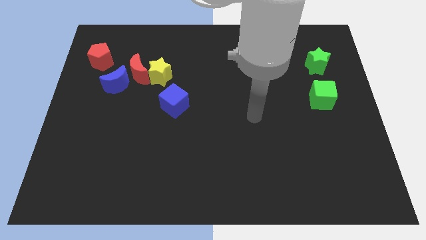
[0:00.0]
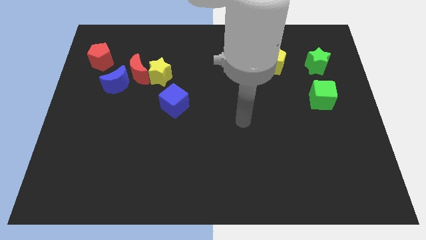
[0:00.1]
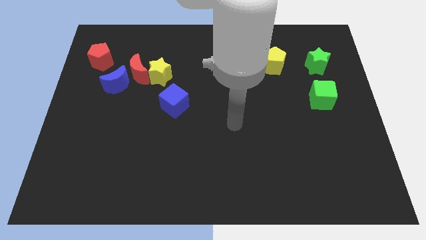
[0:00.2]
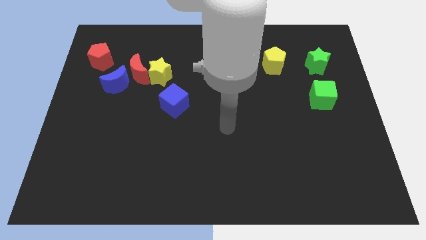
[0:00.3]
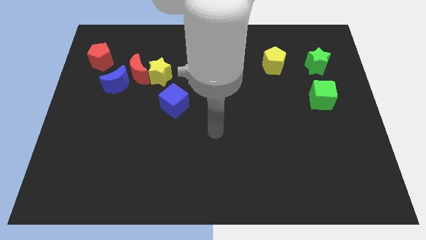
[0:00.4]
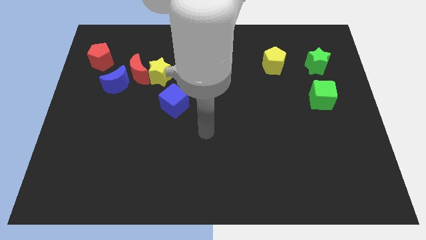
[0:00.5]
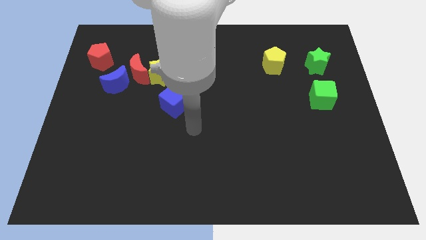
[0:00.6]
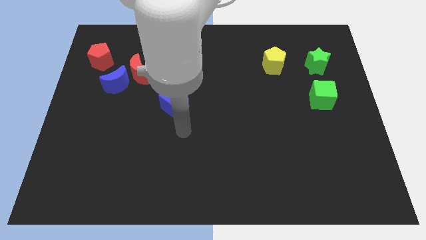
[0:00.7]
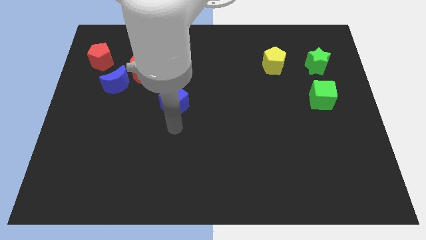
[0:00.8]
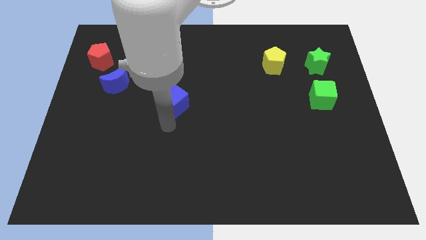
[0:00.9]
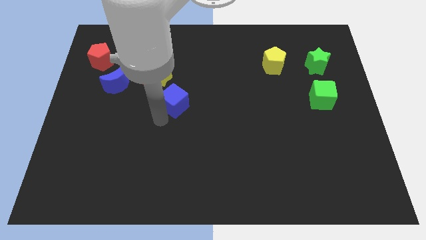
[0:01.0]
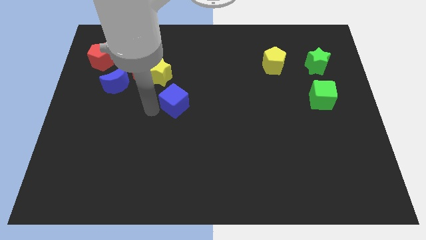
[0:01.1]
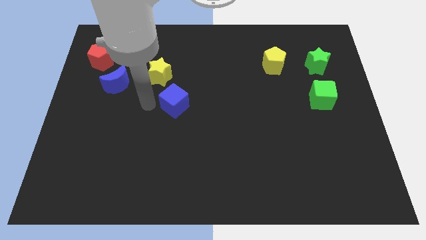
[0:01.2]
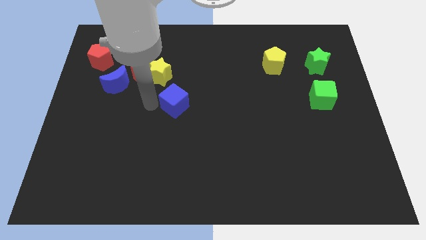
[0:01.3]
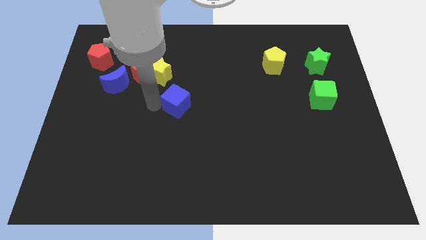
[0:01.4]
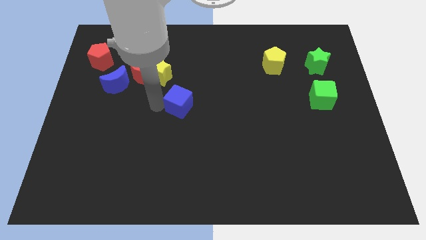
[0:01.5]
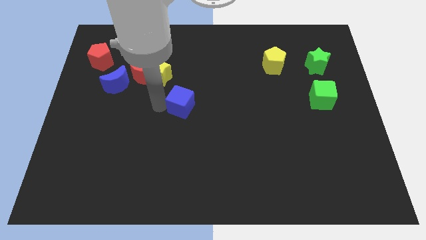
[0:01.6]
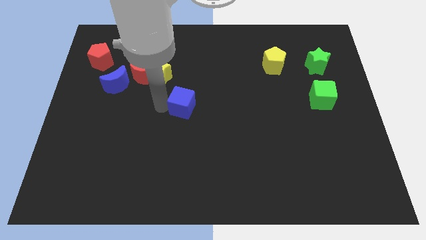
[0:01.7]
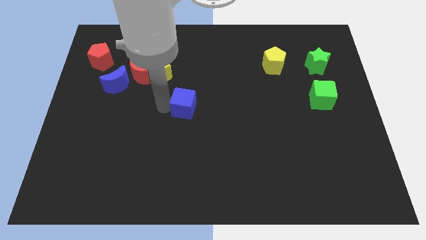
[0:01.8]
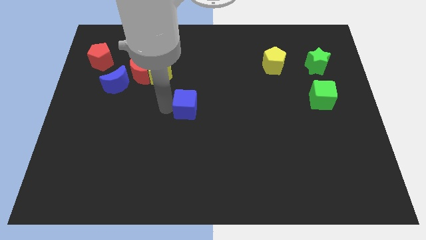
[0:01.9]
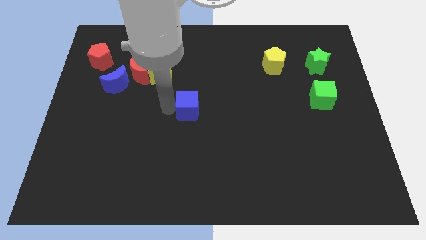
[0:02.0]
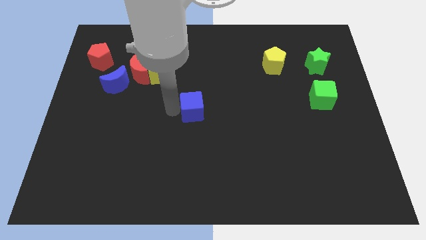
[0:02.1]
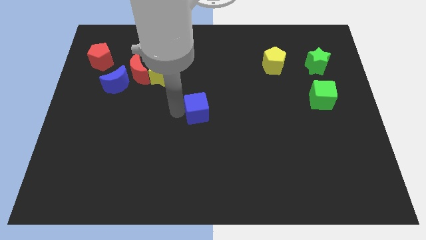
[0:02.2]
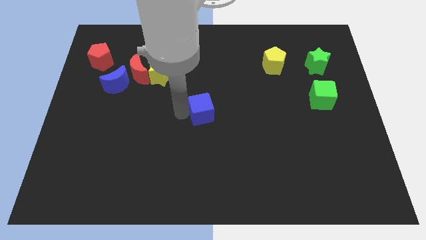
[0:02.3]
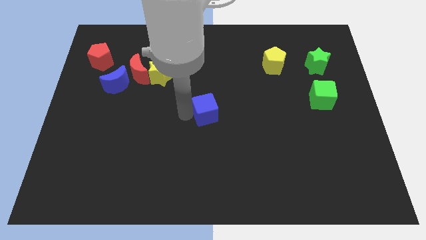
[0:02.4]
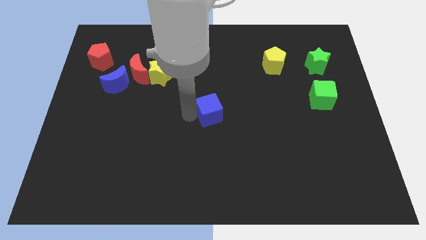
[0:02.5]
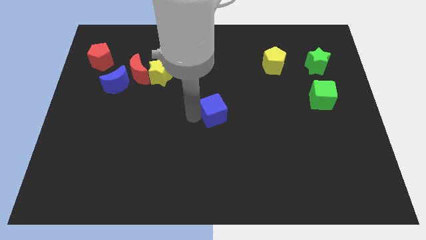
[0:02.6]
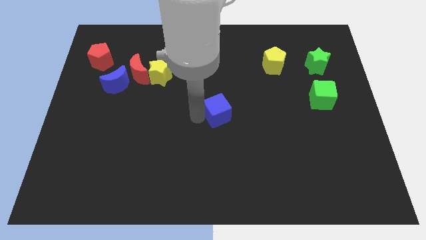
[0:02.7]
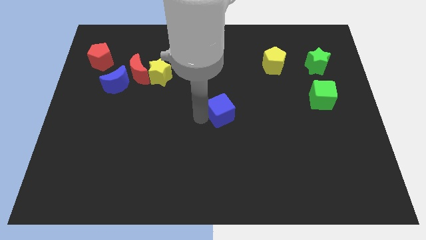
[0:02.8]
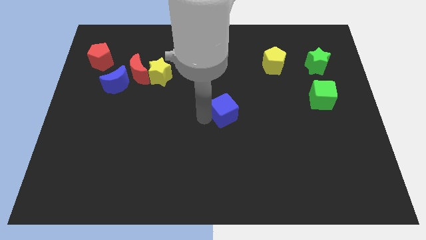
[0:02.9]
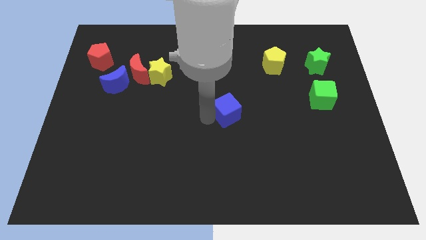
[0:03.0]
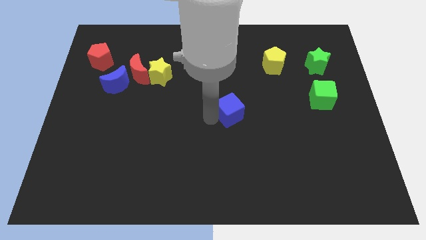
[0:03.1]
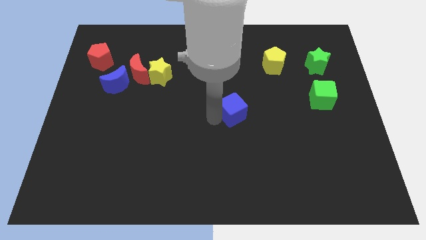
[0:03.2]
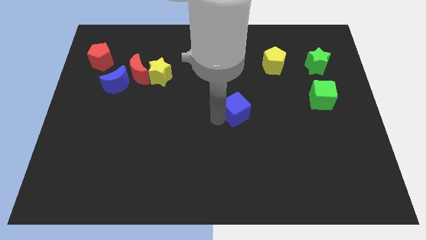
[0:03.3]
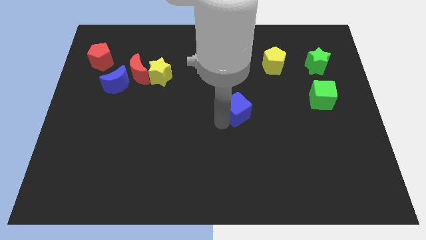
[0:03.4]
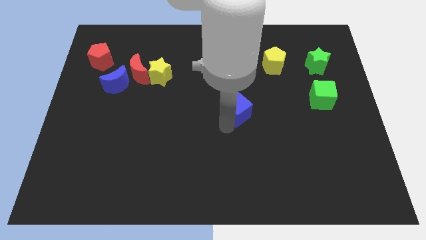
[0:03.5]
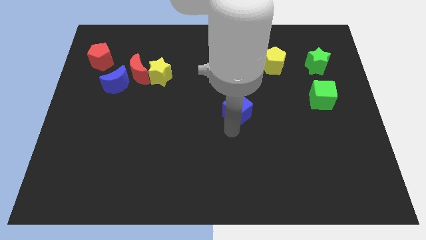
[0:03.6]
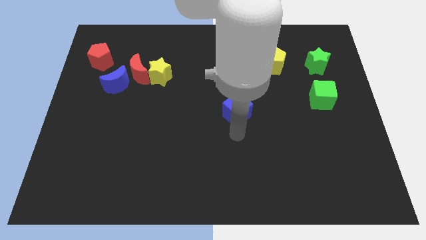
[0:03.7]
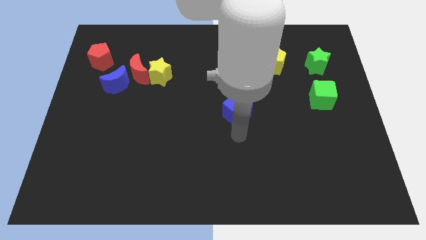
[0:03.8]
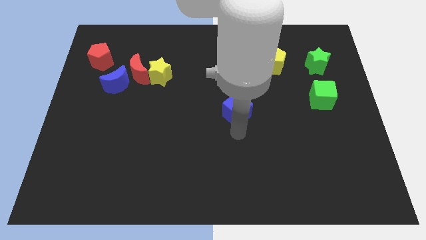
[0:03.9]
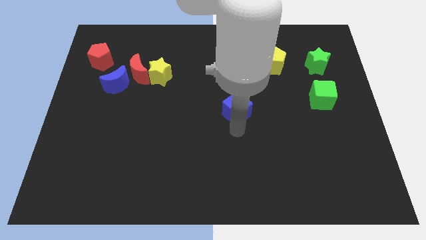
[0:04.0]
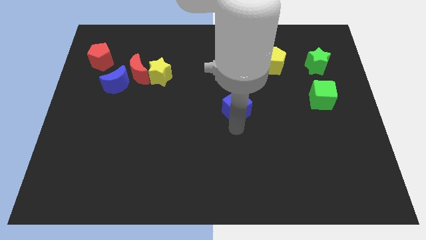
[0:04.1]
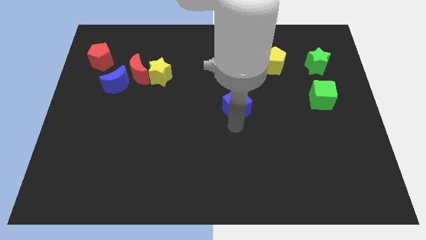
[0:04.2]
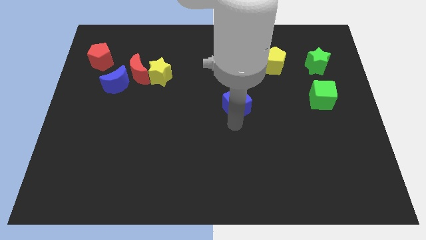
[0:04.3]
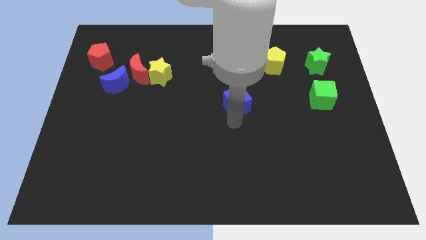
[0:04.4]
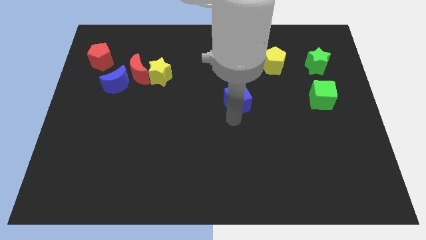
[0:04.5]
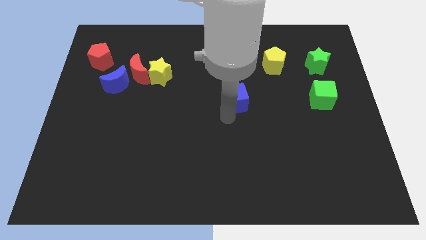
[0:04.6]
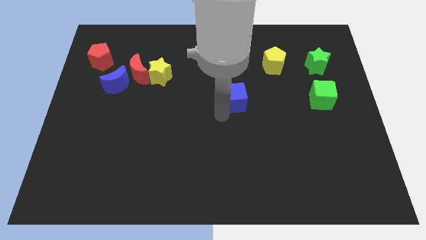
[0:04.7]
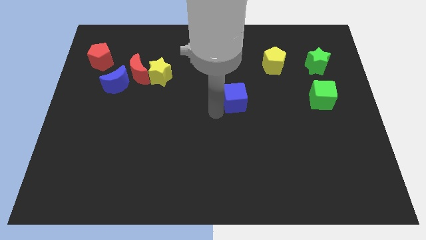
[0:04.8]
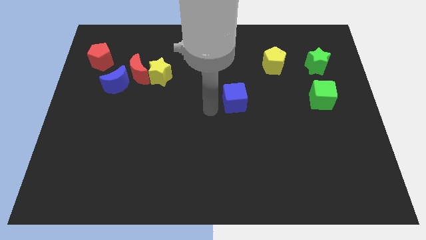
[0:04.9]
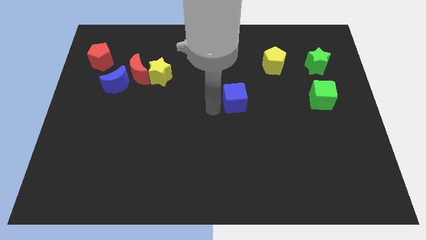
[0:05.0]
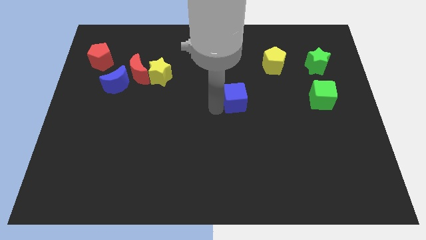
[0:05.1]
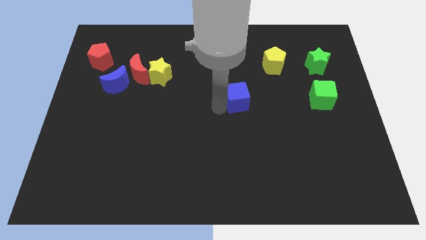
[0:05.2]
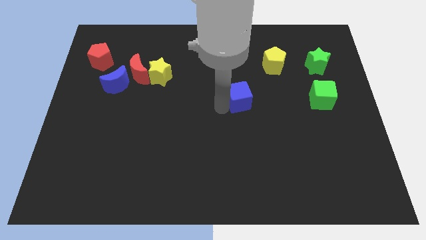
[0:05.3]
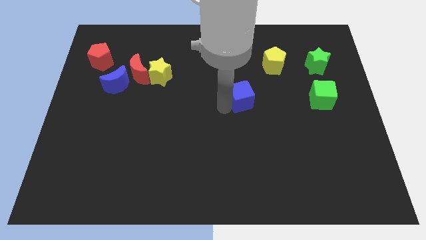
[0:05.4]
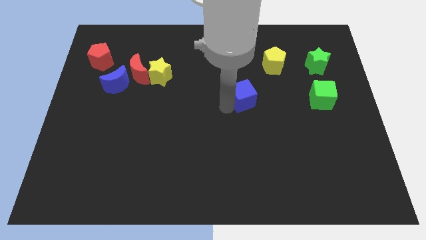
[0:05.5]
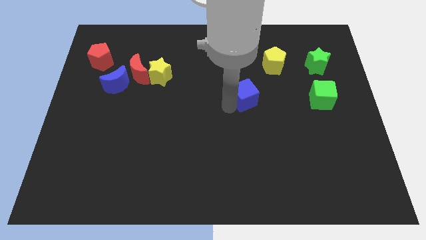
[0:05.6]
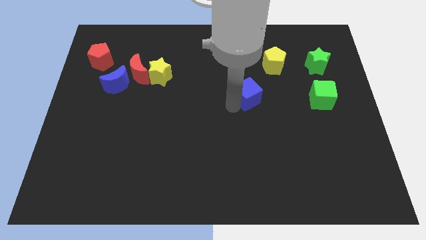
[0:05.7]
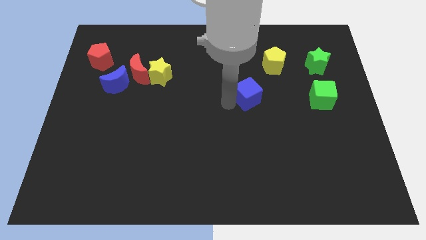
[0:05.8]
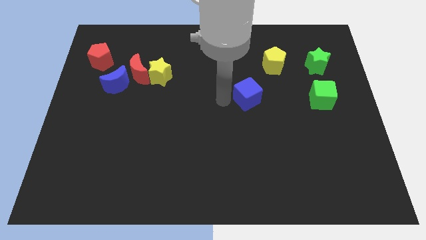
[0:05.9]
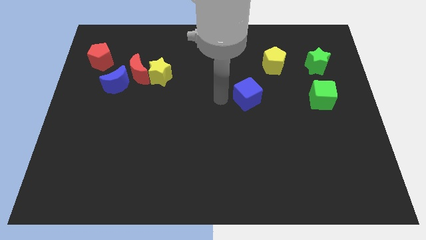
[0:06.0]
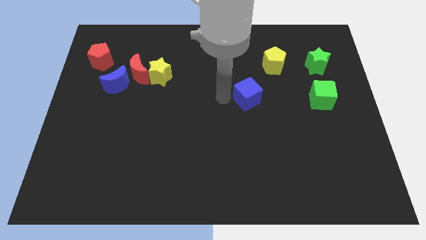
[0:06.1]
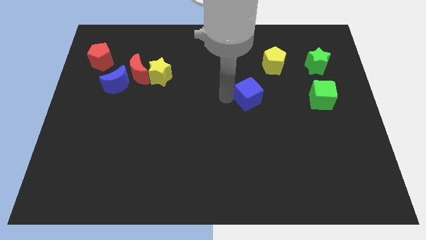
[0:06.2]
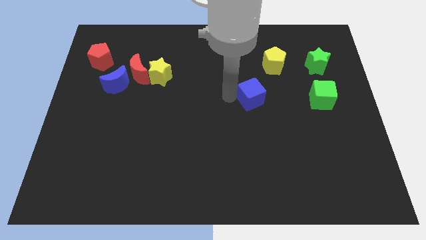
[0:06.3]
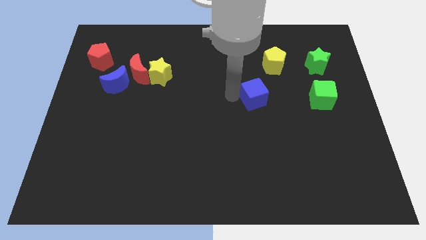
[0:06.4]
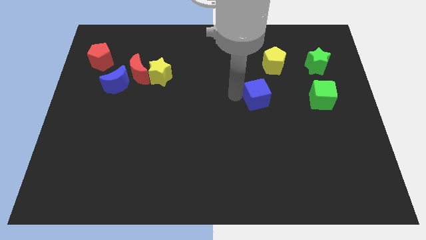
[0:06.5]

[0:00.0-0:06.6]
slide the blue cube below the yellow pentagon
